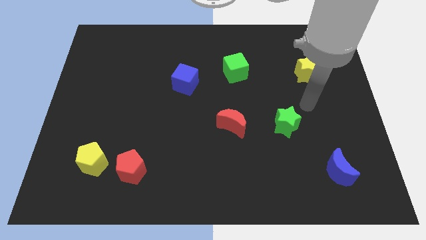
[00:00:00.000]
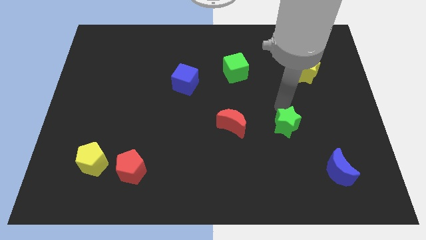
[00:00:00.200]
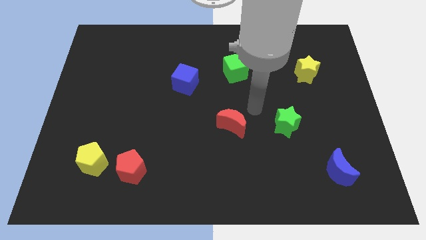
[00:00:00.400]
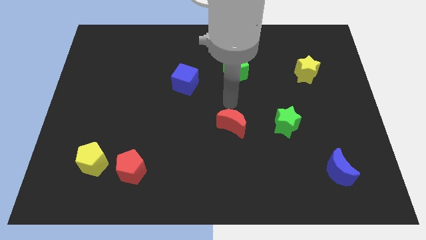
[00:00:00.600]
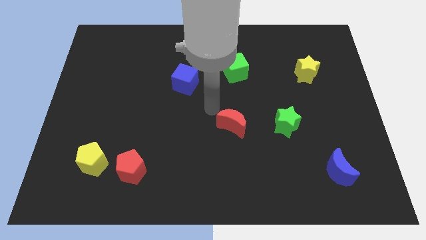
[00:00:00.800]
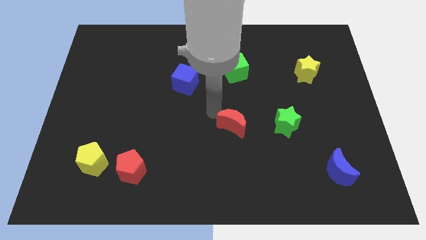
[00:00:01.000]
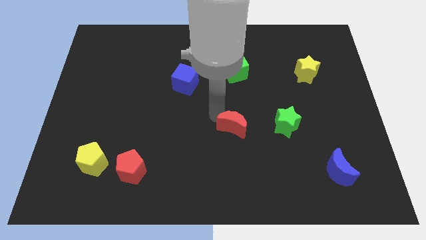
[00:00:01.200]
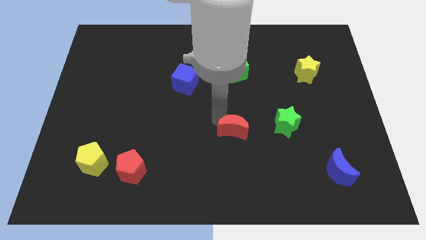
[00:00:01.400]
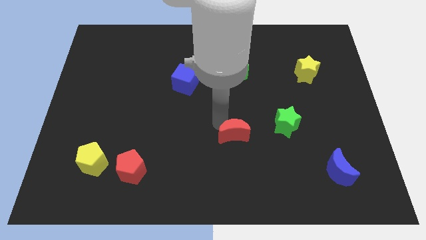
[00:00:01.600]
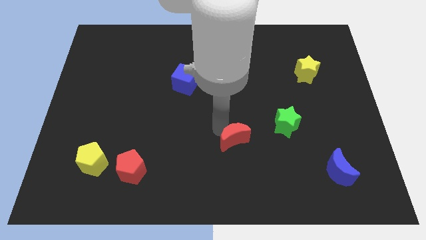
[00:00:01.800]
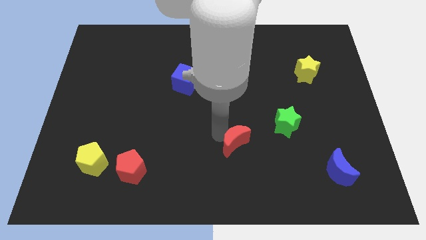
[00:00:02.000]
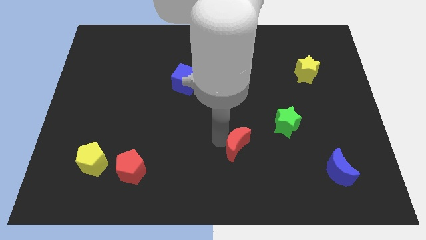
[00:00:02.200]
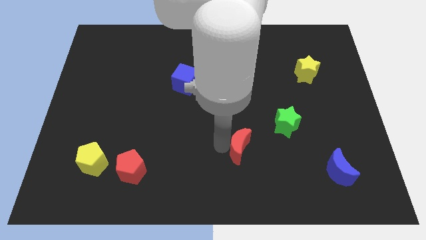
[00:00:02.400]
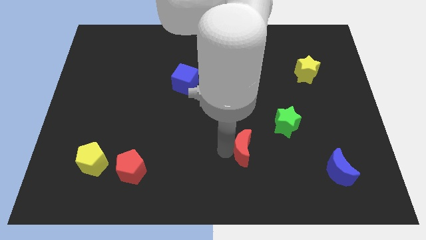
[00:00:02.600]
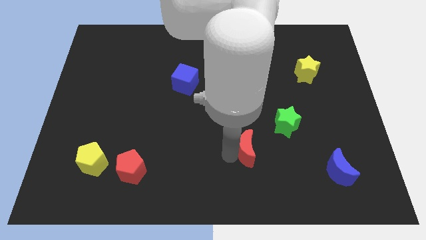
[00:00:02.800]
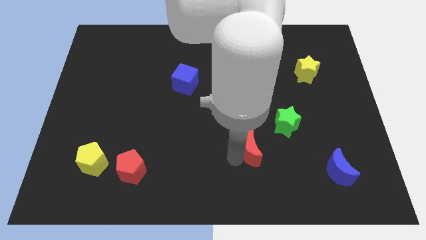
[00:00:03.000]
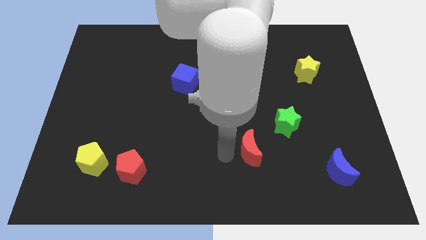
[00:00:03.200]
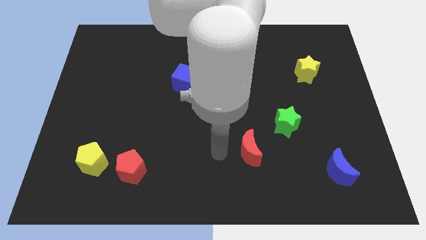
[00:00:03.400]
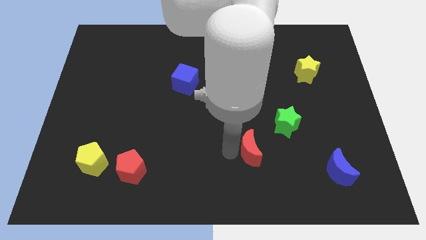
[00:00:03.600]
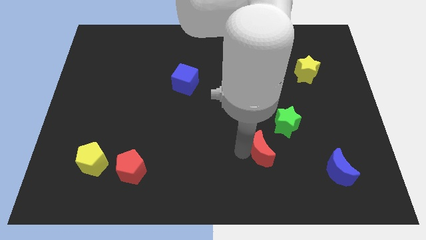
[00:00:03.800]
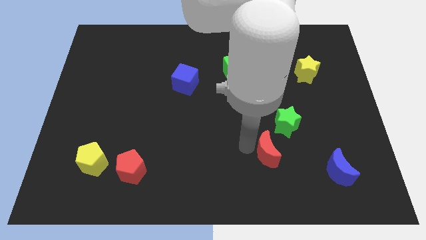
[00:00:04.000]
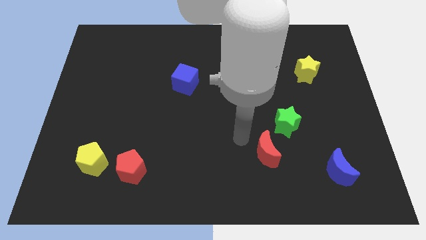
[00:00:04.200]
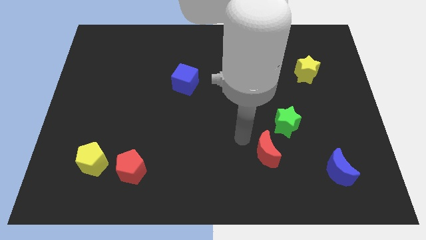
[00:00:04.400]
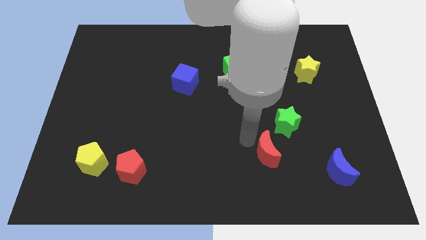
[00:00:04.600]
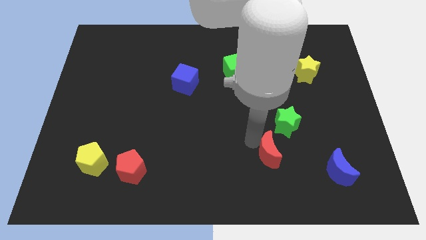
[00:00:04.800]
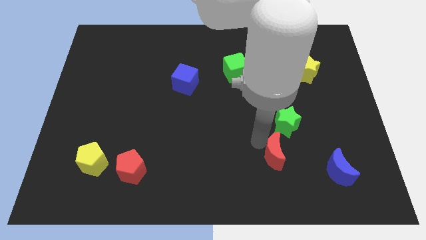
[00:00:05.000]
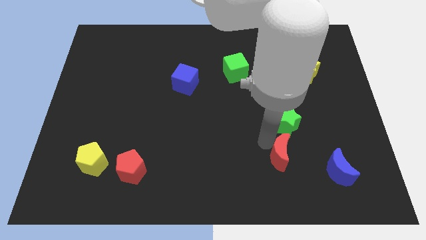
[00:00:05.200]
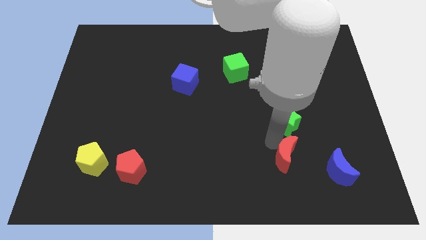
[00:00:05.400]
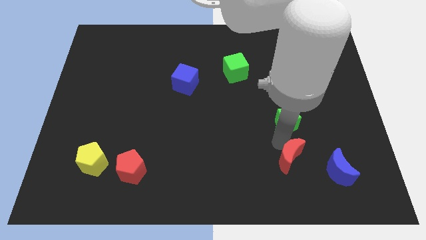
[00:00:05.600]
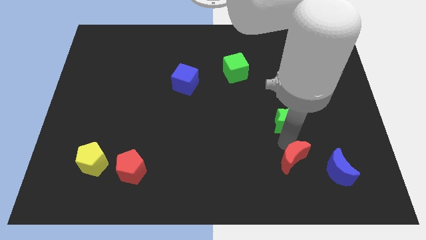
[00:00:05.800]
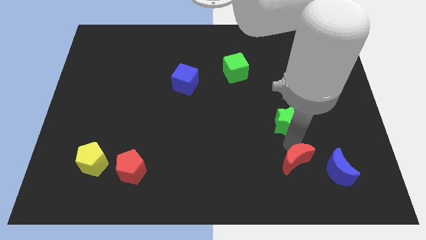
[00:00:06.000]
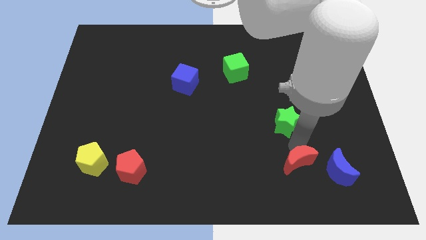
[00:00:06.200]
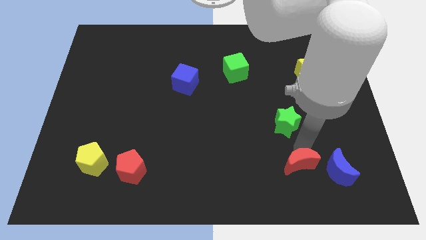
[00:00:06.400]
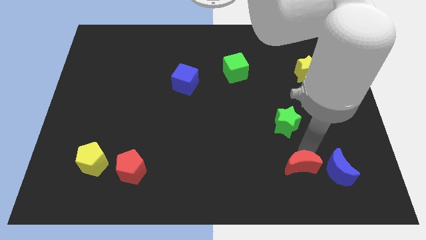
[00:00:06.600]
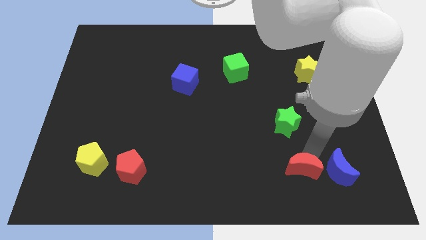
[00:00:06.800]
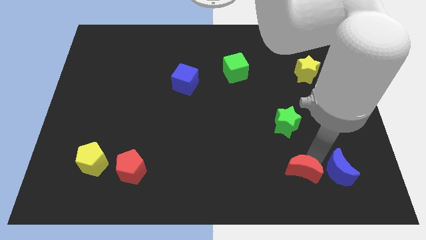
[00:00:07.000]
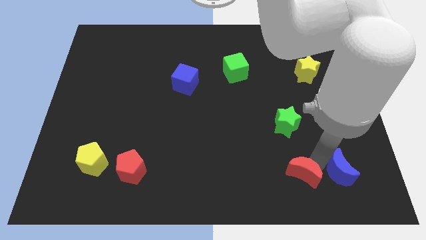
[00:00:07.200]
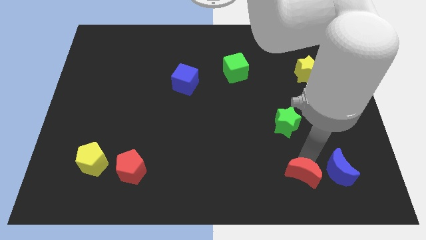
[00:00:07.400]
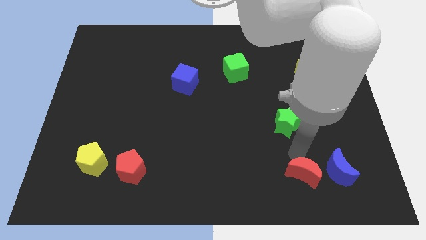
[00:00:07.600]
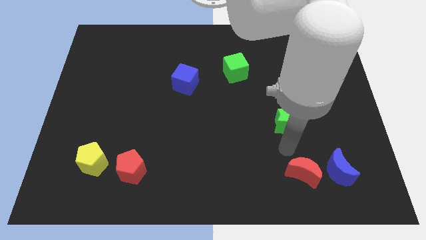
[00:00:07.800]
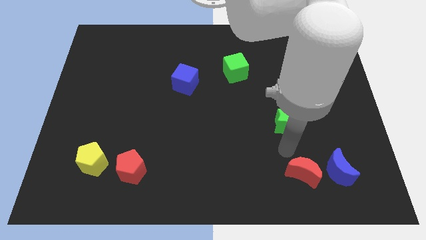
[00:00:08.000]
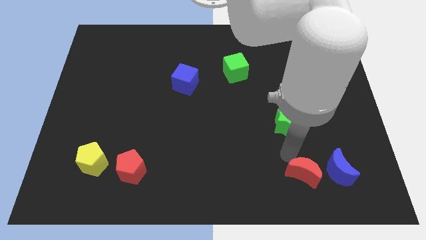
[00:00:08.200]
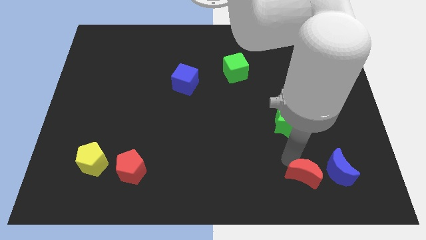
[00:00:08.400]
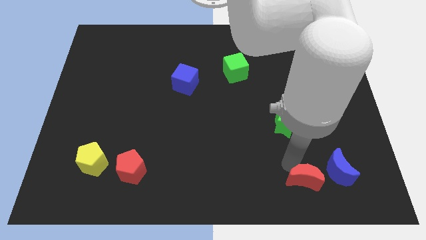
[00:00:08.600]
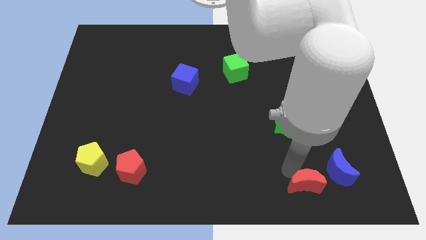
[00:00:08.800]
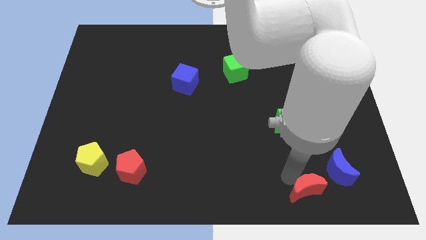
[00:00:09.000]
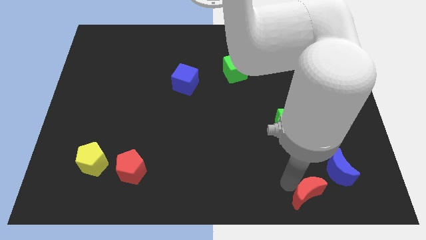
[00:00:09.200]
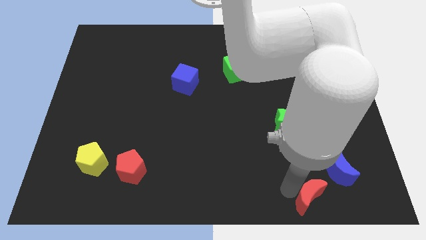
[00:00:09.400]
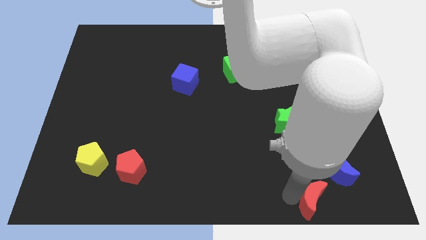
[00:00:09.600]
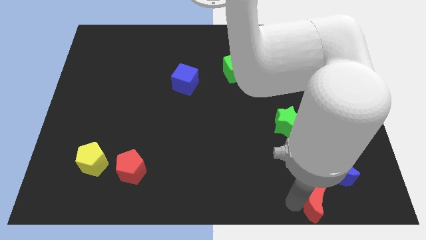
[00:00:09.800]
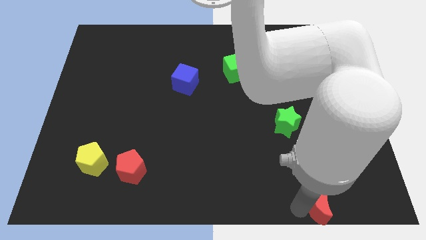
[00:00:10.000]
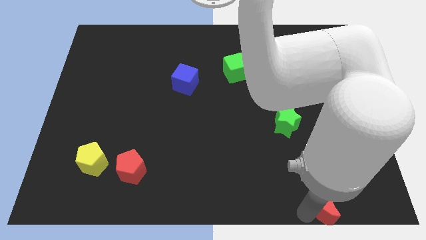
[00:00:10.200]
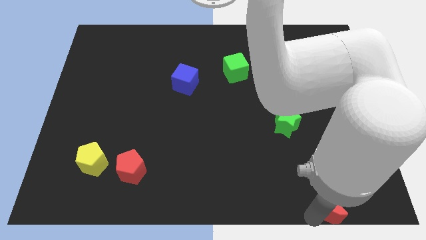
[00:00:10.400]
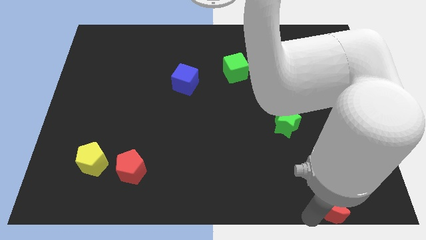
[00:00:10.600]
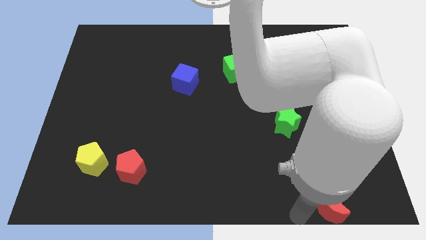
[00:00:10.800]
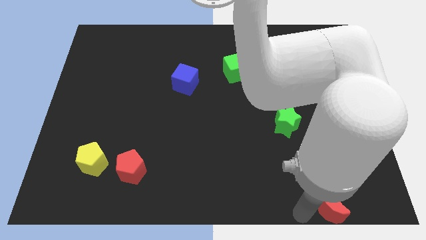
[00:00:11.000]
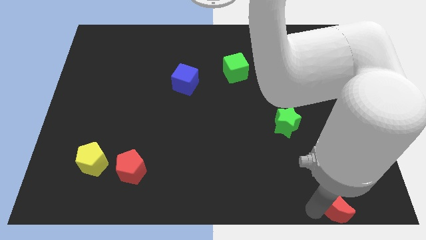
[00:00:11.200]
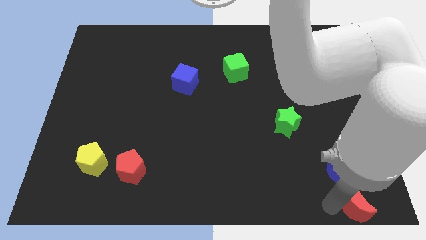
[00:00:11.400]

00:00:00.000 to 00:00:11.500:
move the red moon to the bottom right of the board

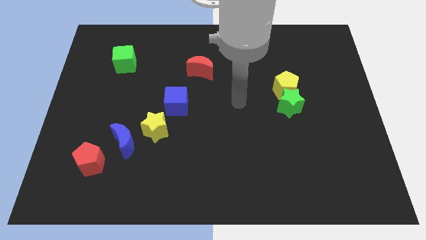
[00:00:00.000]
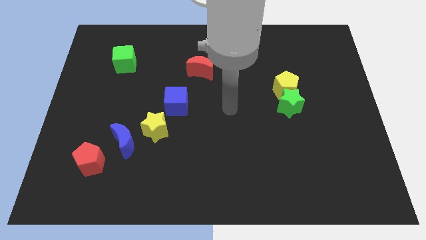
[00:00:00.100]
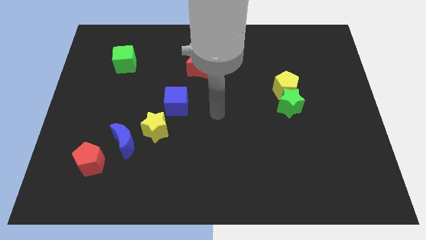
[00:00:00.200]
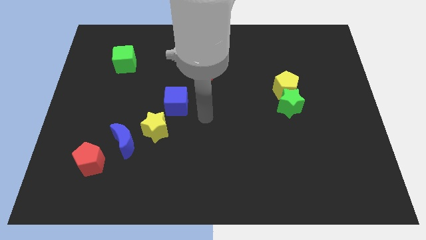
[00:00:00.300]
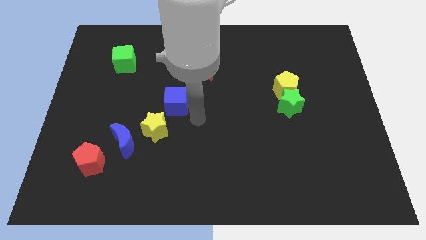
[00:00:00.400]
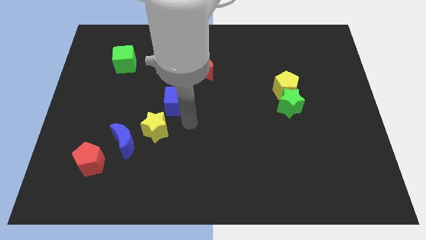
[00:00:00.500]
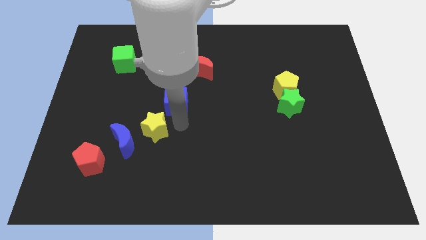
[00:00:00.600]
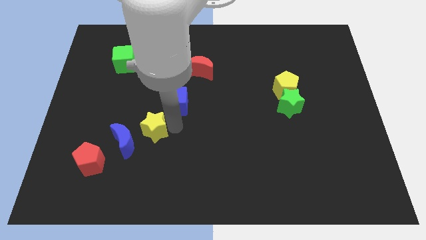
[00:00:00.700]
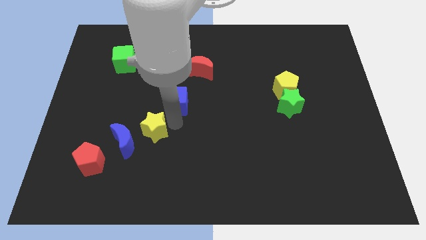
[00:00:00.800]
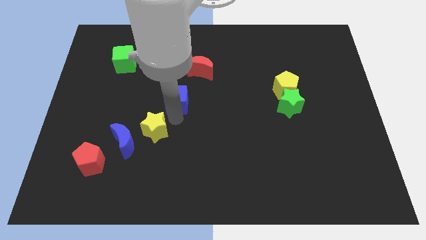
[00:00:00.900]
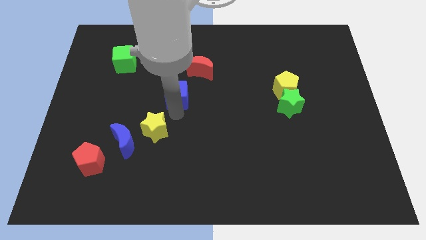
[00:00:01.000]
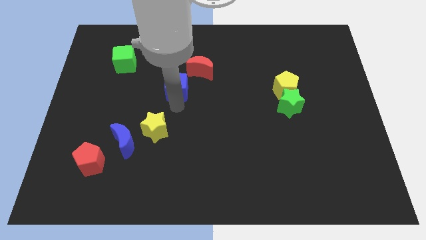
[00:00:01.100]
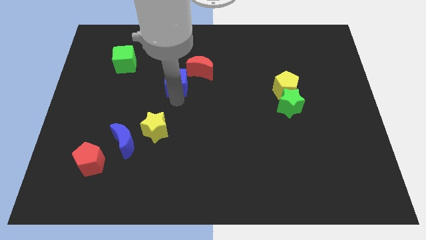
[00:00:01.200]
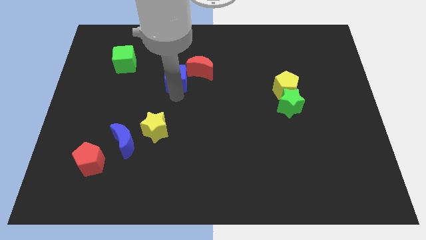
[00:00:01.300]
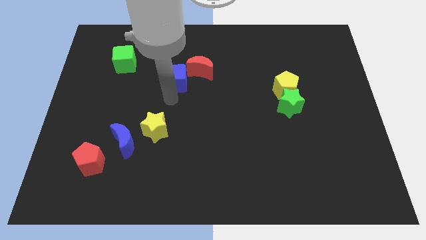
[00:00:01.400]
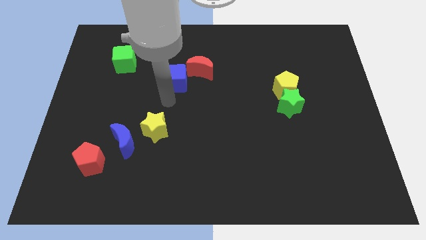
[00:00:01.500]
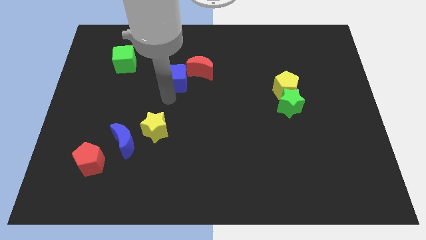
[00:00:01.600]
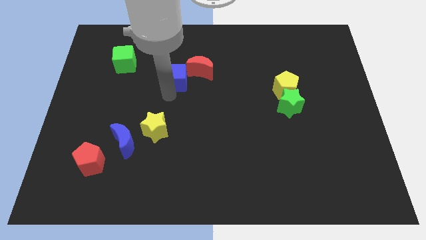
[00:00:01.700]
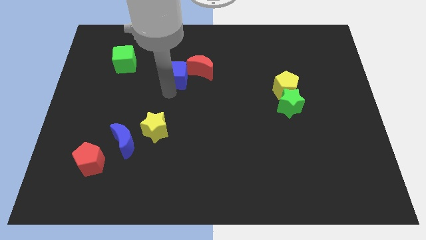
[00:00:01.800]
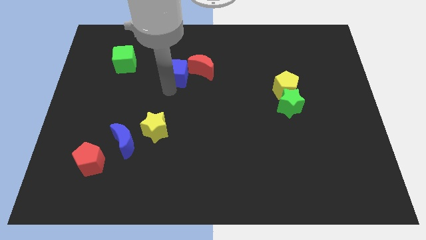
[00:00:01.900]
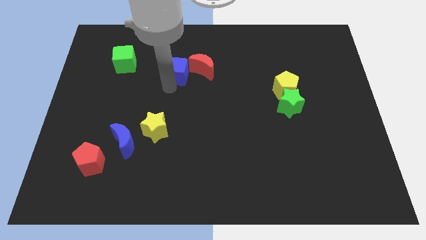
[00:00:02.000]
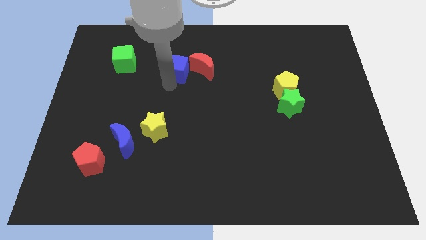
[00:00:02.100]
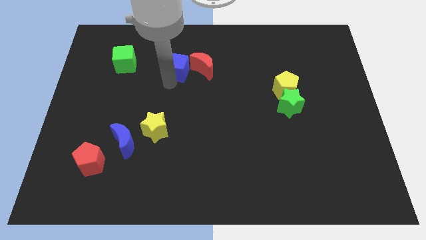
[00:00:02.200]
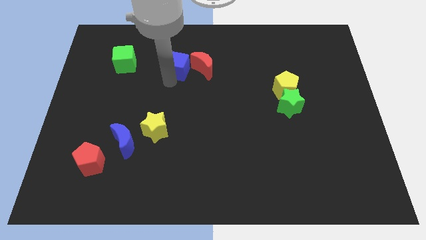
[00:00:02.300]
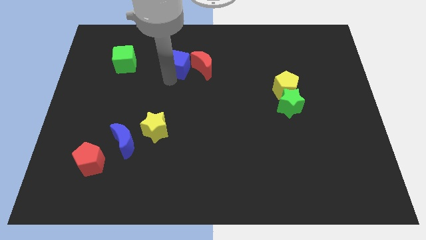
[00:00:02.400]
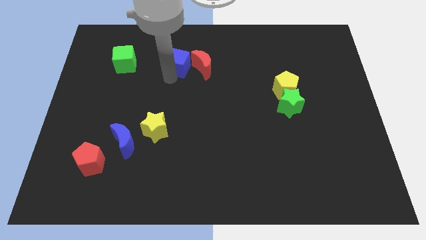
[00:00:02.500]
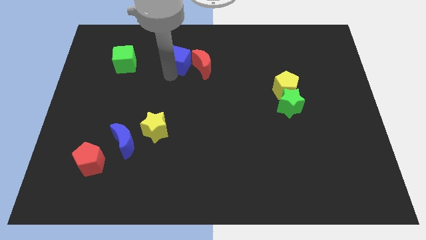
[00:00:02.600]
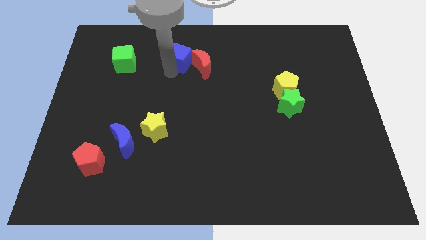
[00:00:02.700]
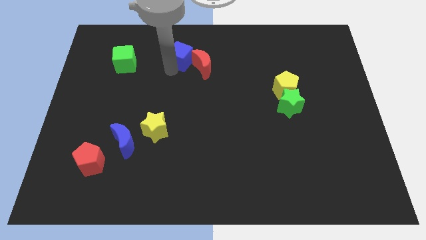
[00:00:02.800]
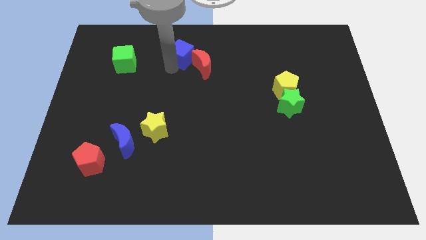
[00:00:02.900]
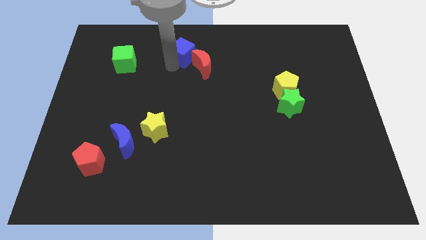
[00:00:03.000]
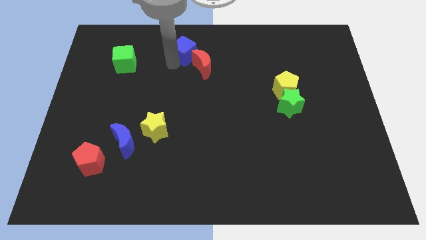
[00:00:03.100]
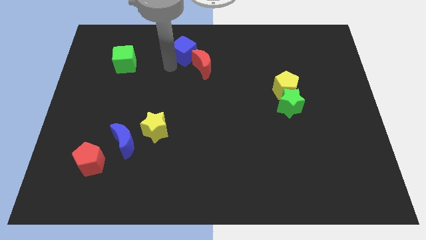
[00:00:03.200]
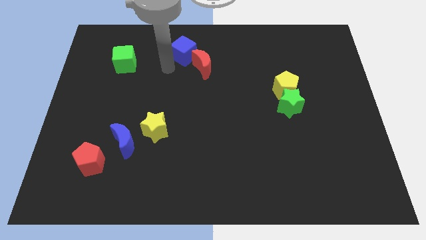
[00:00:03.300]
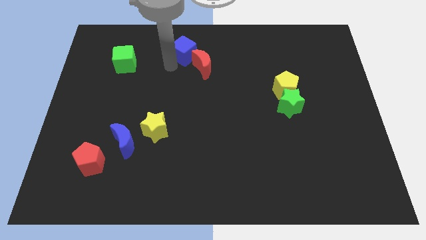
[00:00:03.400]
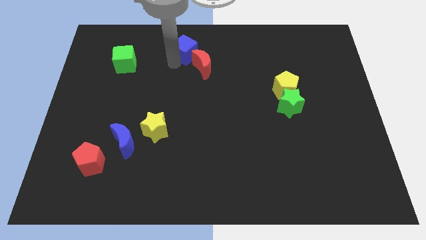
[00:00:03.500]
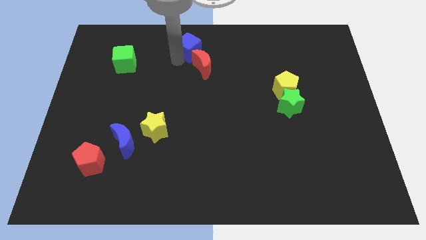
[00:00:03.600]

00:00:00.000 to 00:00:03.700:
push the blue cube to the top side
